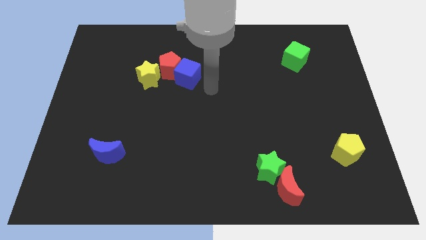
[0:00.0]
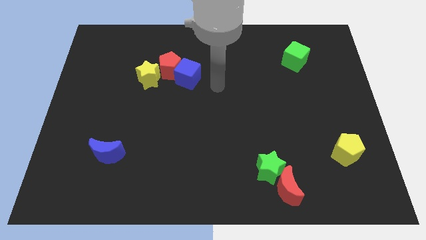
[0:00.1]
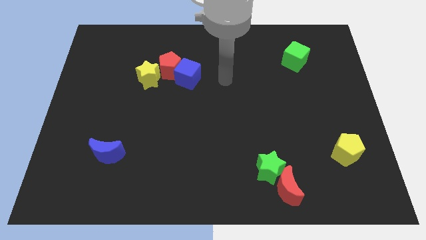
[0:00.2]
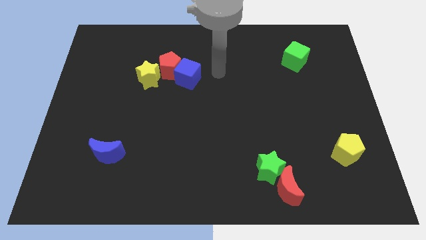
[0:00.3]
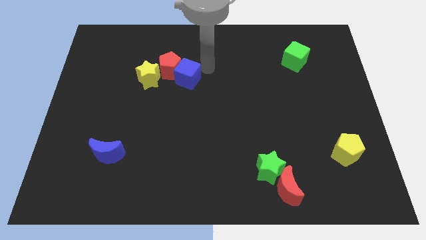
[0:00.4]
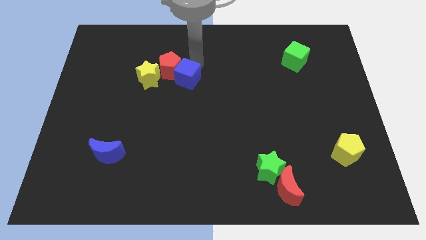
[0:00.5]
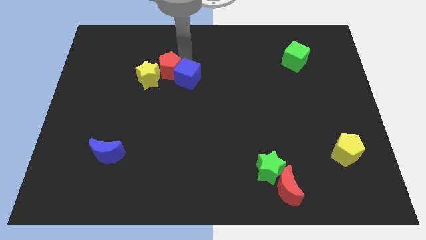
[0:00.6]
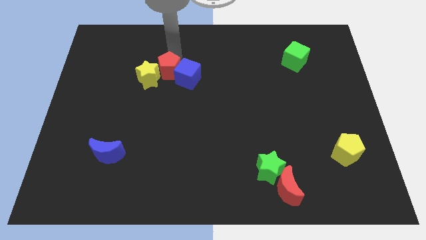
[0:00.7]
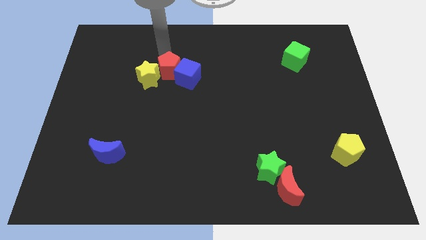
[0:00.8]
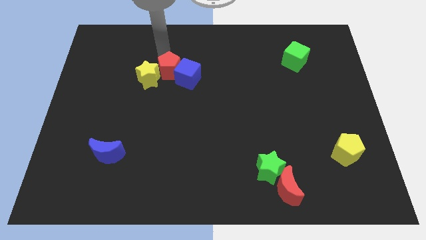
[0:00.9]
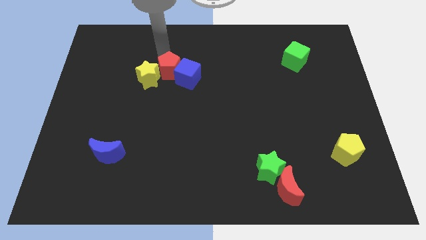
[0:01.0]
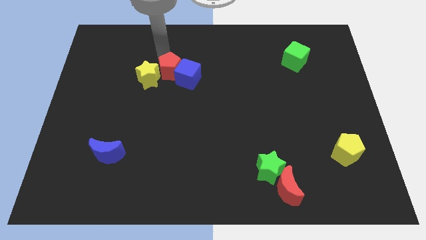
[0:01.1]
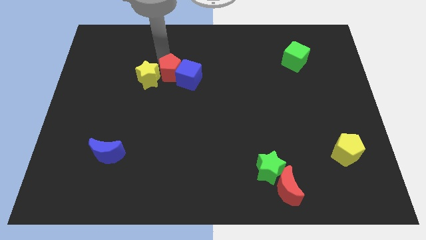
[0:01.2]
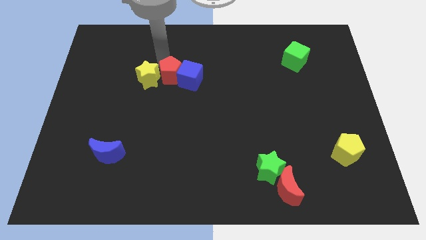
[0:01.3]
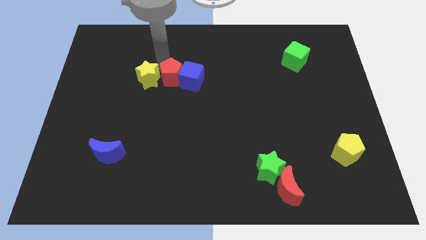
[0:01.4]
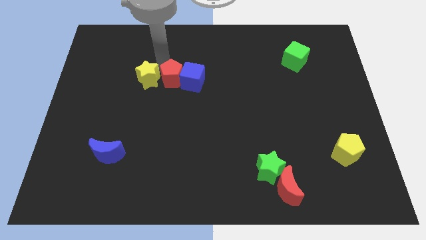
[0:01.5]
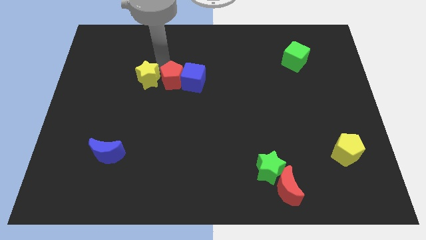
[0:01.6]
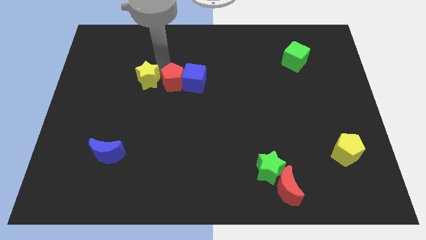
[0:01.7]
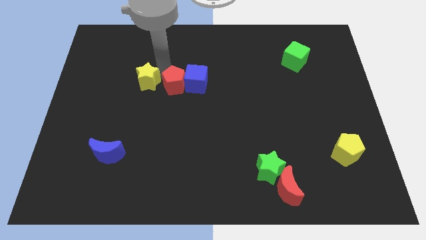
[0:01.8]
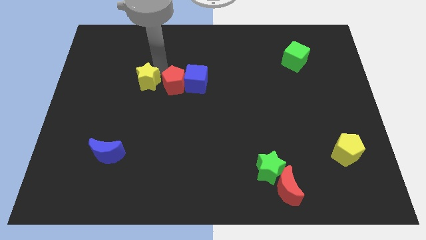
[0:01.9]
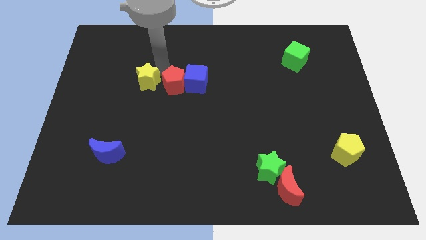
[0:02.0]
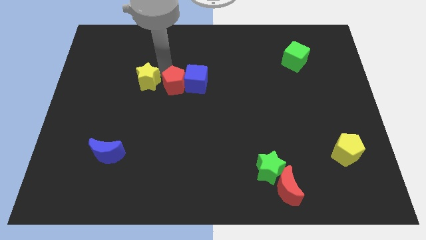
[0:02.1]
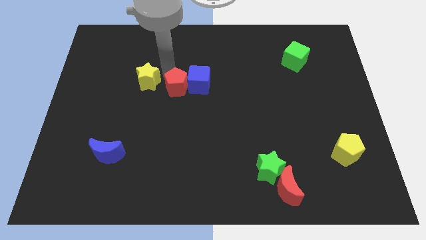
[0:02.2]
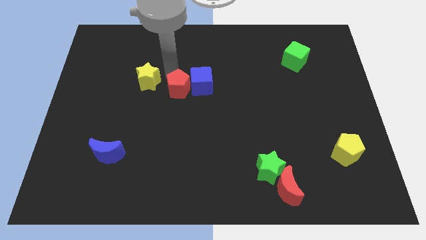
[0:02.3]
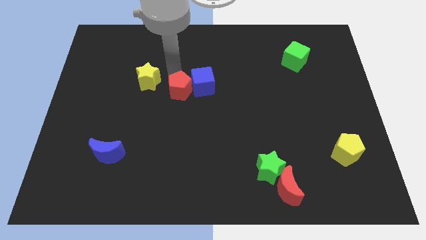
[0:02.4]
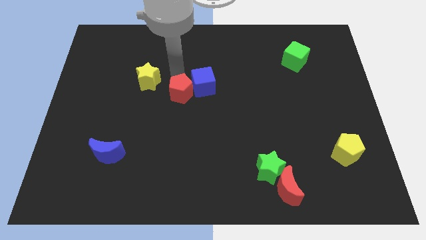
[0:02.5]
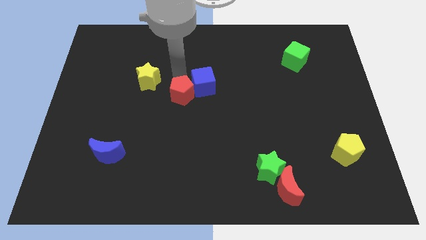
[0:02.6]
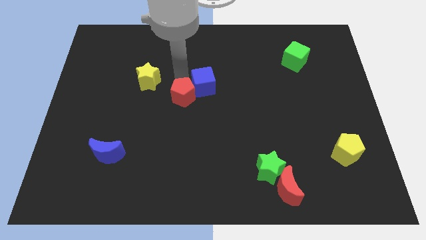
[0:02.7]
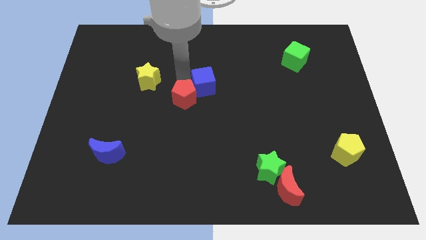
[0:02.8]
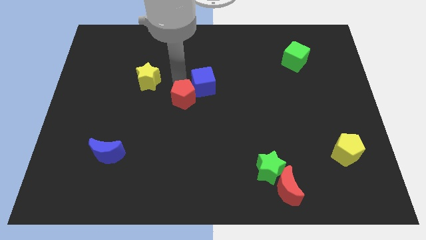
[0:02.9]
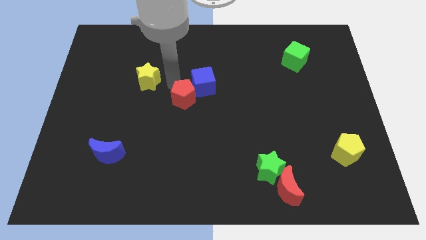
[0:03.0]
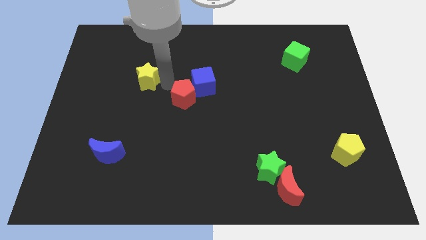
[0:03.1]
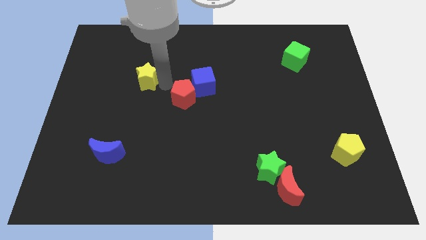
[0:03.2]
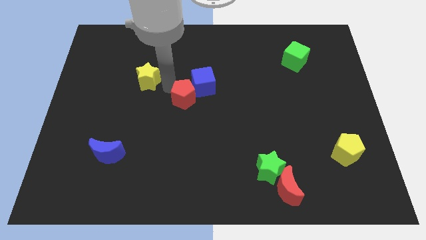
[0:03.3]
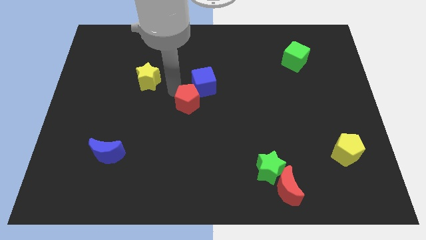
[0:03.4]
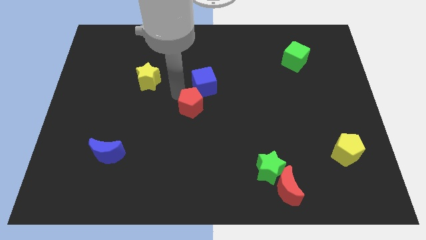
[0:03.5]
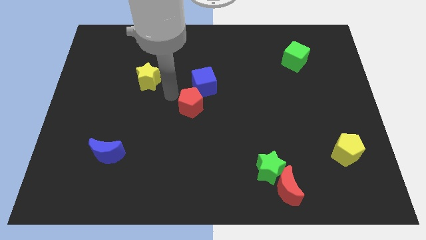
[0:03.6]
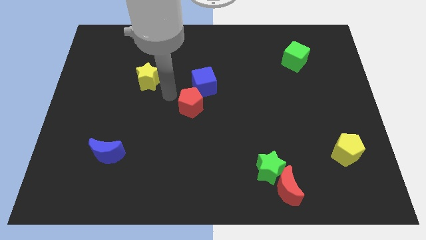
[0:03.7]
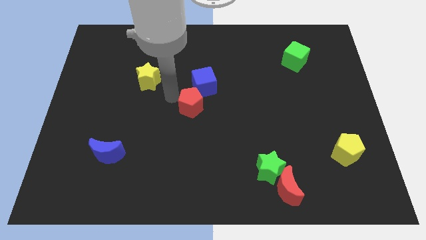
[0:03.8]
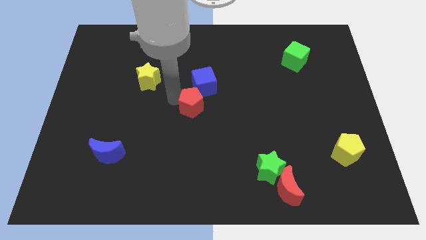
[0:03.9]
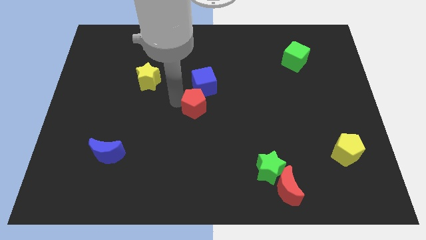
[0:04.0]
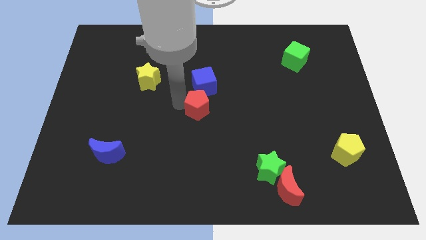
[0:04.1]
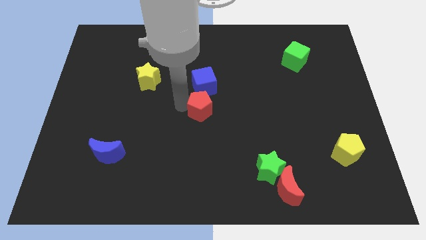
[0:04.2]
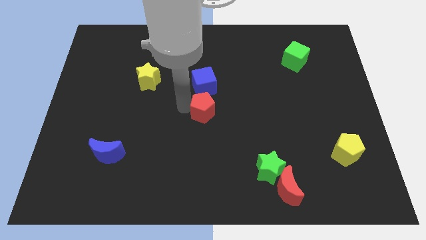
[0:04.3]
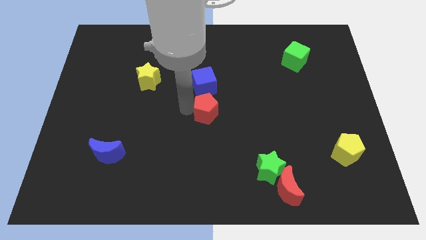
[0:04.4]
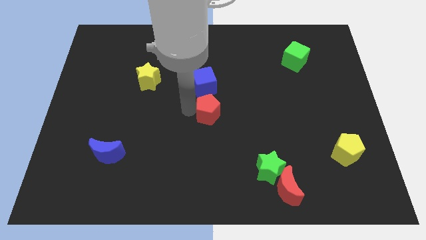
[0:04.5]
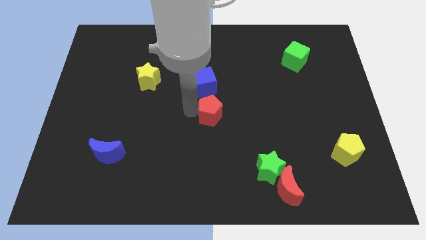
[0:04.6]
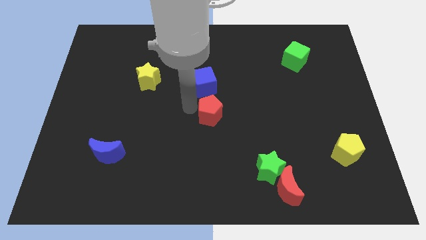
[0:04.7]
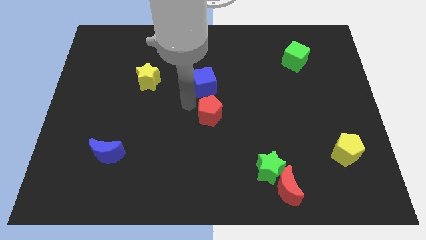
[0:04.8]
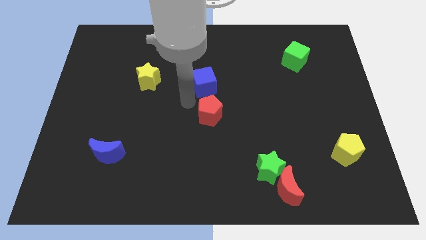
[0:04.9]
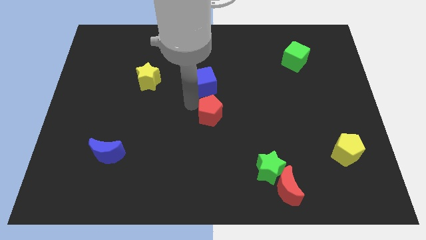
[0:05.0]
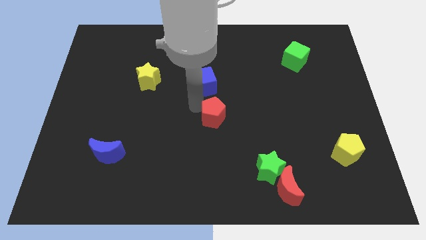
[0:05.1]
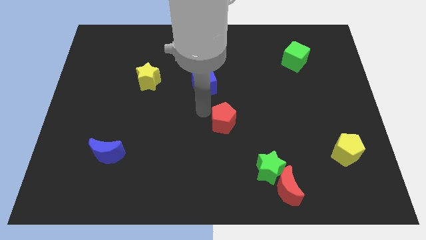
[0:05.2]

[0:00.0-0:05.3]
slide the red pentagon down and right diagonally

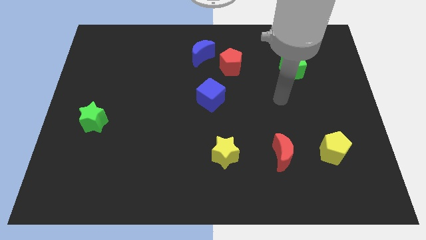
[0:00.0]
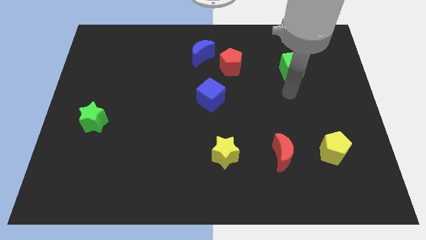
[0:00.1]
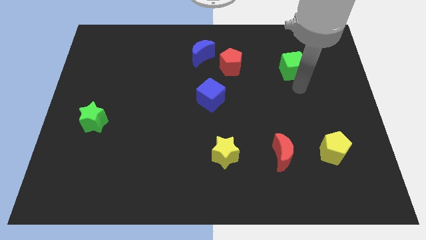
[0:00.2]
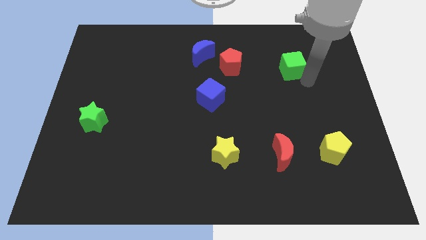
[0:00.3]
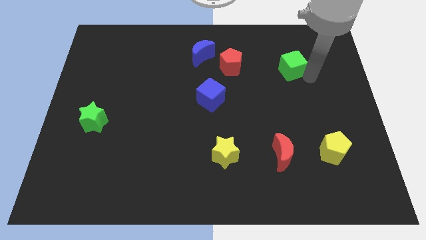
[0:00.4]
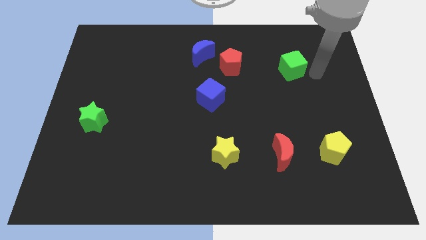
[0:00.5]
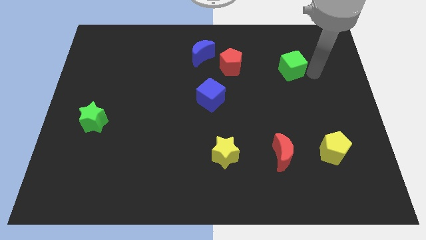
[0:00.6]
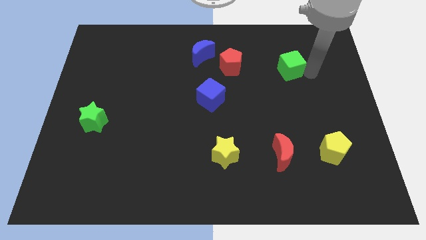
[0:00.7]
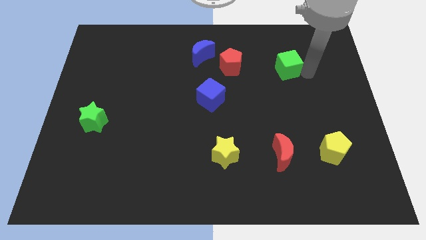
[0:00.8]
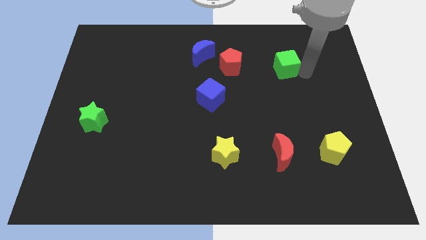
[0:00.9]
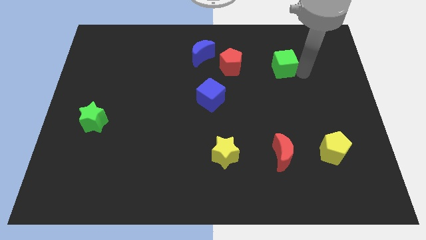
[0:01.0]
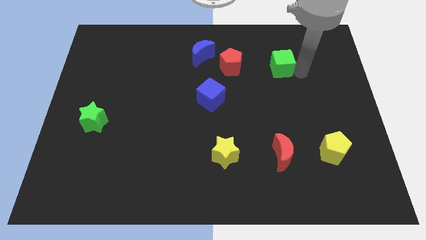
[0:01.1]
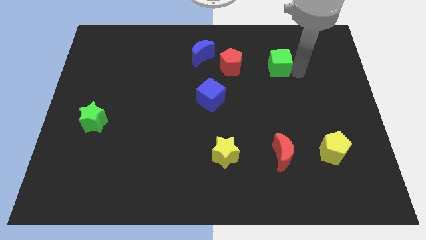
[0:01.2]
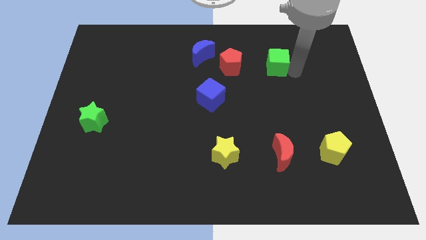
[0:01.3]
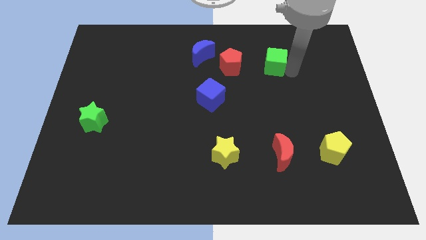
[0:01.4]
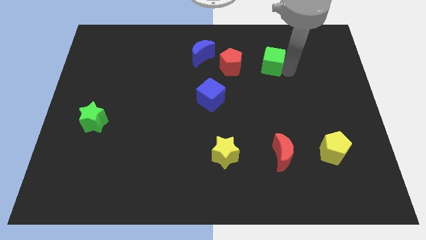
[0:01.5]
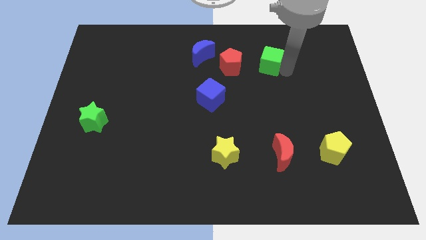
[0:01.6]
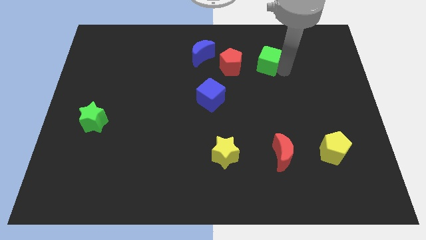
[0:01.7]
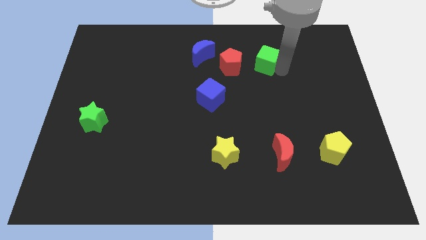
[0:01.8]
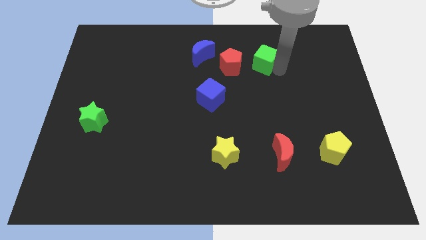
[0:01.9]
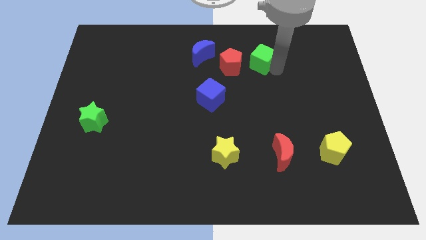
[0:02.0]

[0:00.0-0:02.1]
slide the green cube slightly left

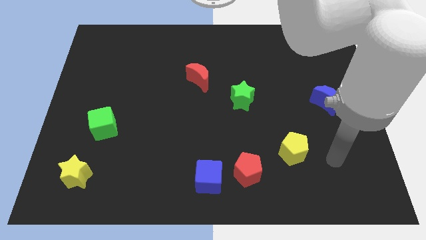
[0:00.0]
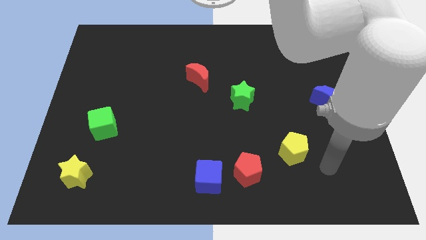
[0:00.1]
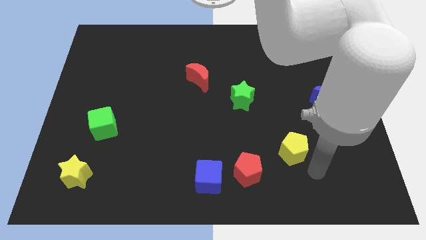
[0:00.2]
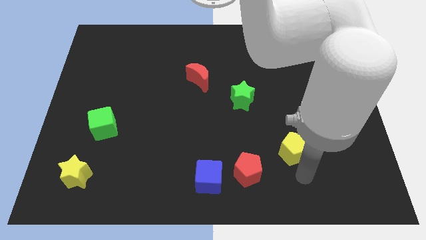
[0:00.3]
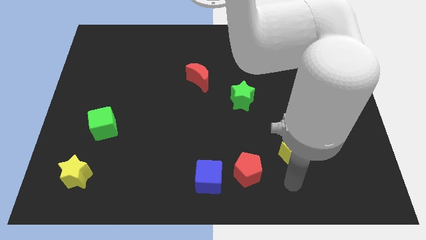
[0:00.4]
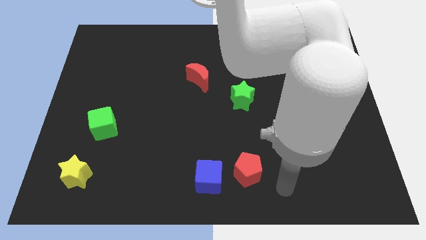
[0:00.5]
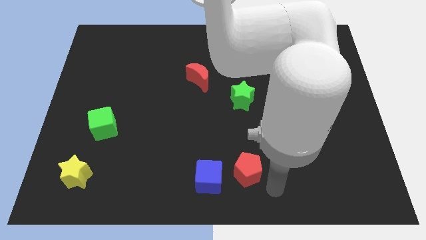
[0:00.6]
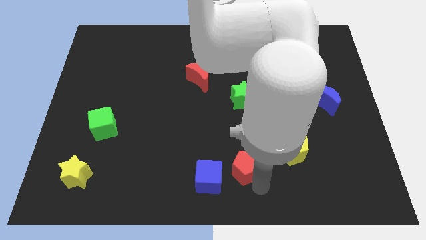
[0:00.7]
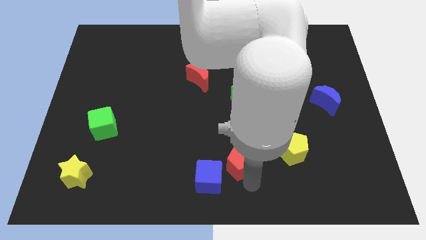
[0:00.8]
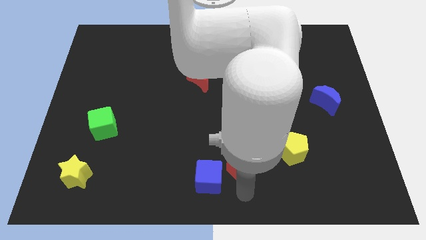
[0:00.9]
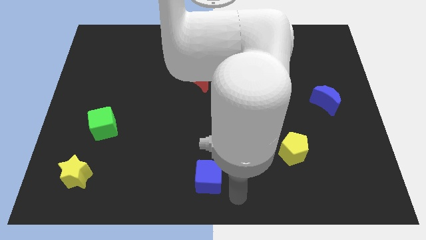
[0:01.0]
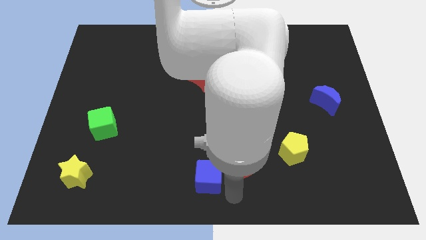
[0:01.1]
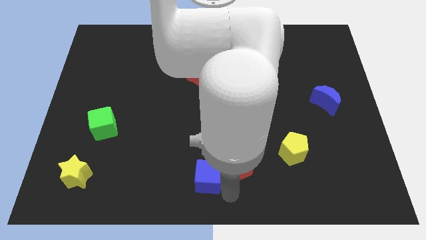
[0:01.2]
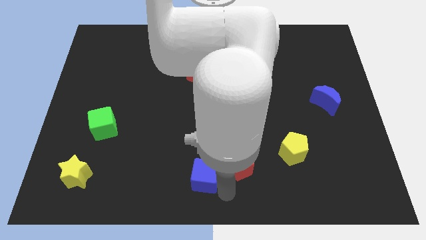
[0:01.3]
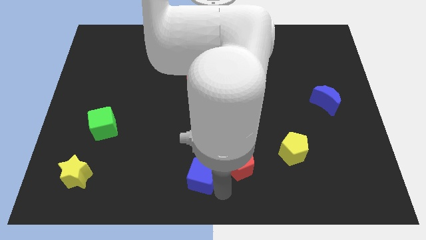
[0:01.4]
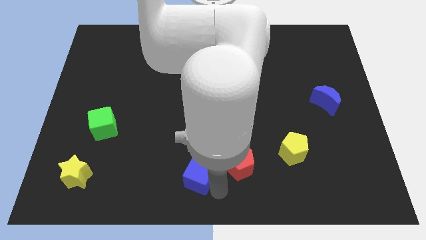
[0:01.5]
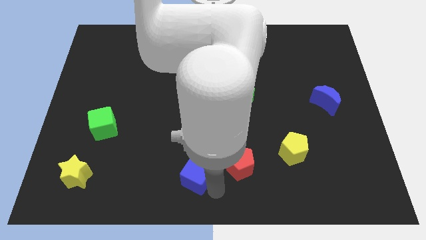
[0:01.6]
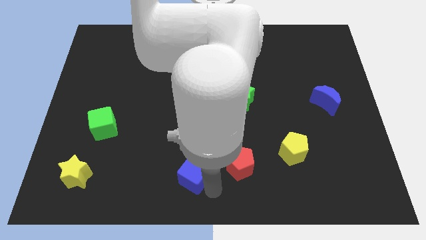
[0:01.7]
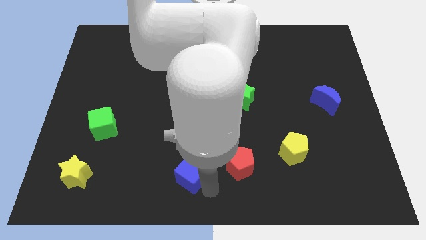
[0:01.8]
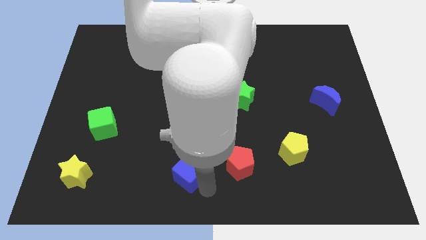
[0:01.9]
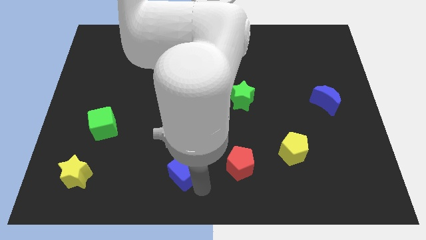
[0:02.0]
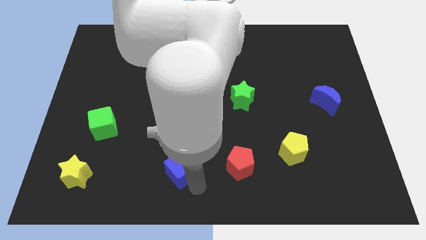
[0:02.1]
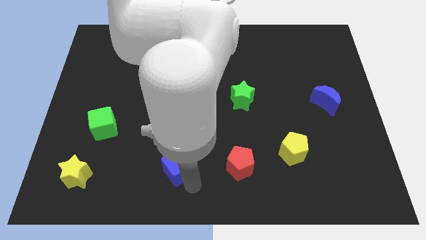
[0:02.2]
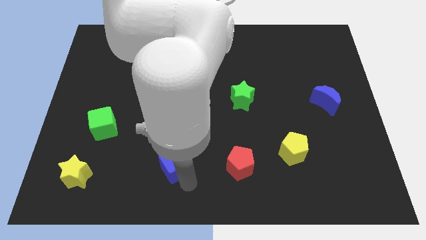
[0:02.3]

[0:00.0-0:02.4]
push the blue cube a bit diagonally up and to the left
